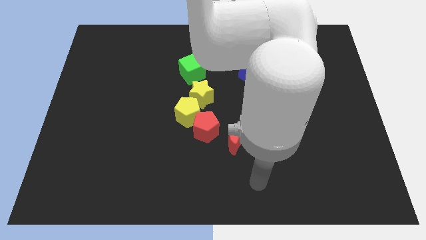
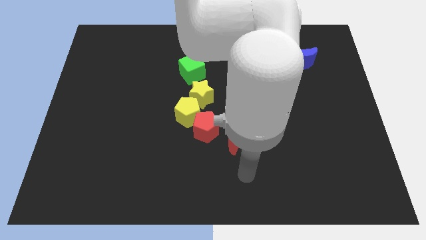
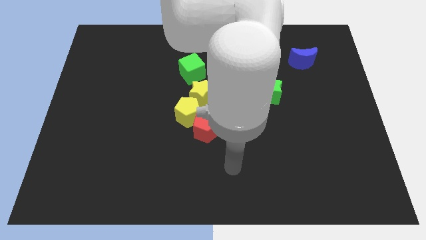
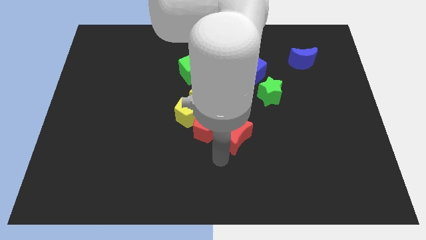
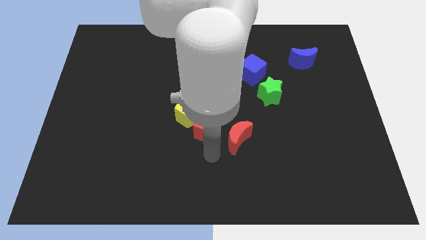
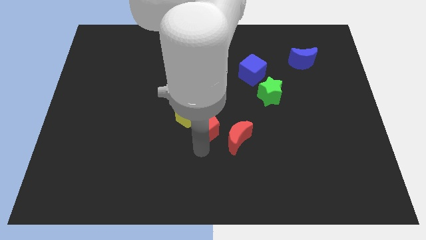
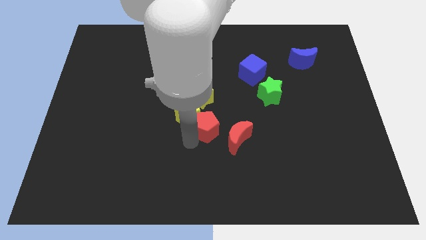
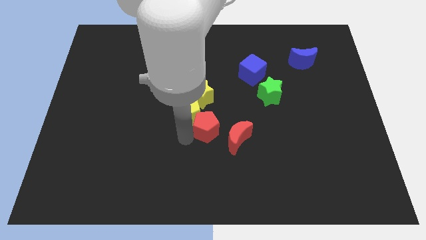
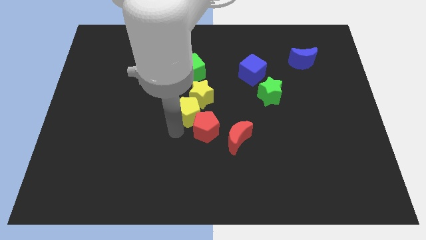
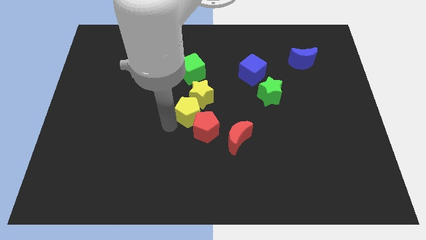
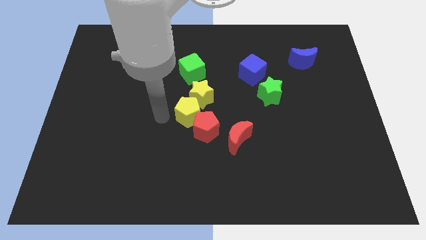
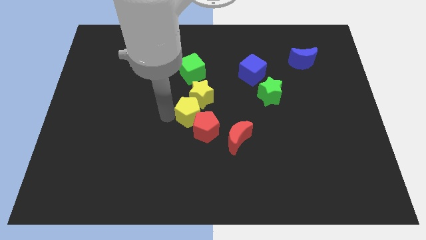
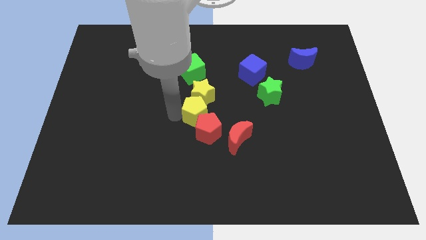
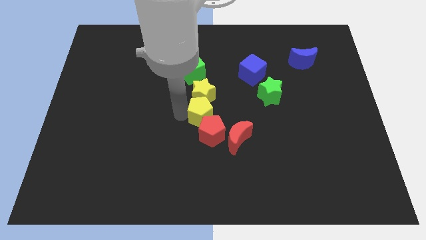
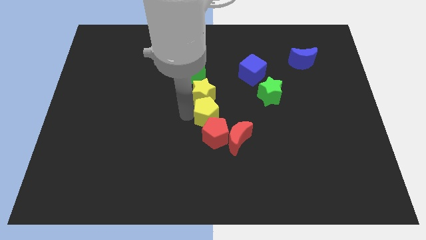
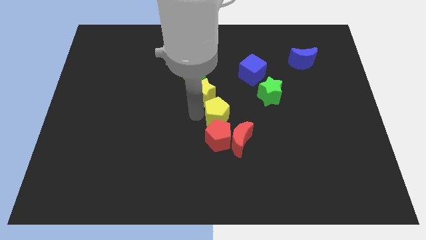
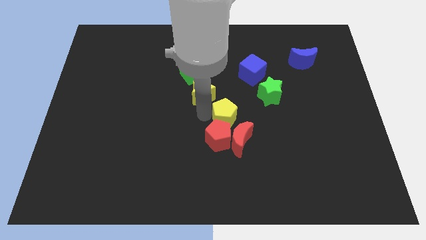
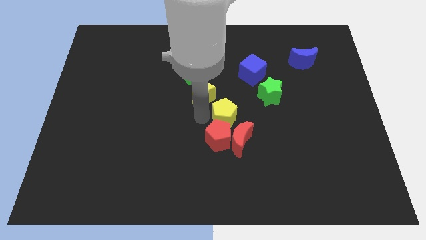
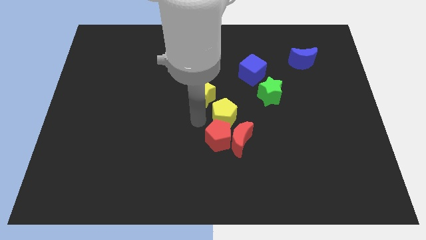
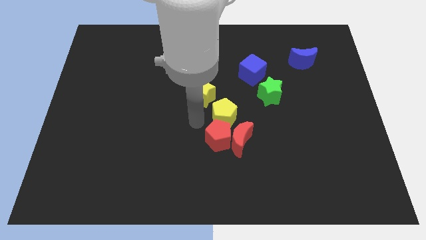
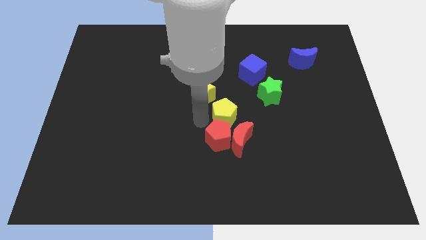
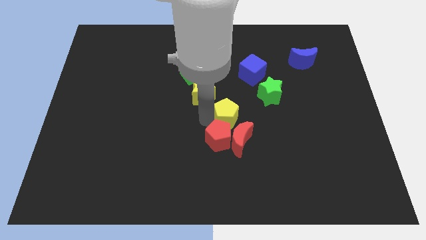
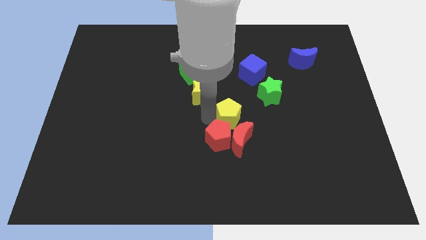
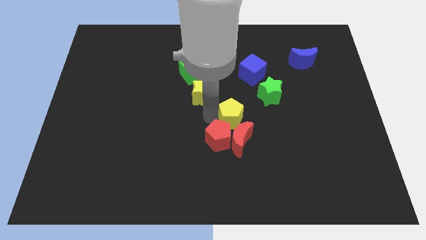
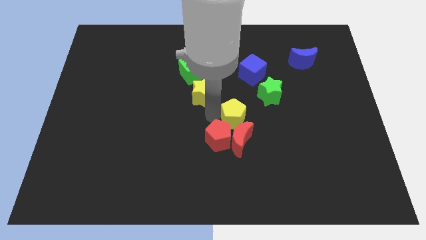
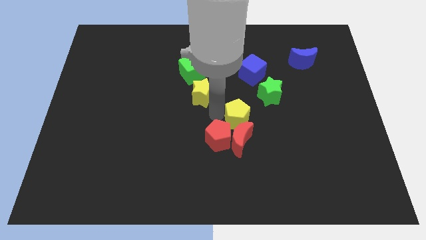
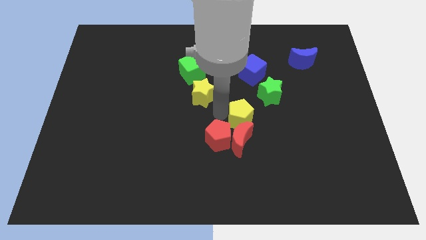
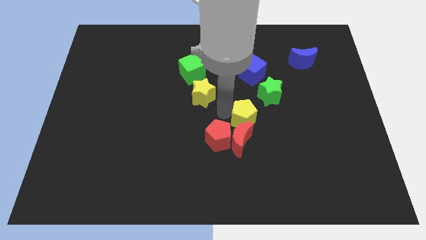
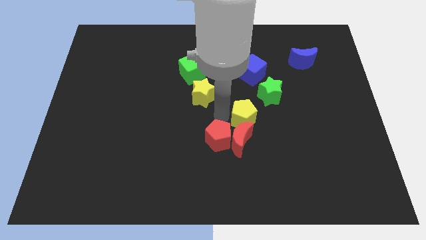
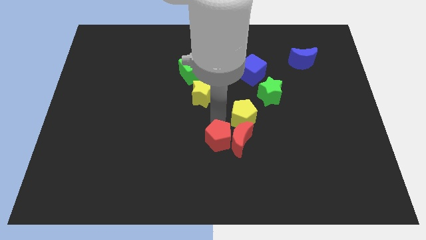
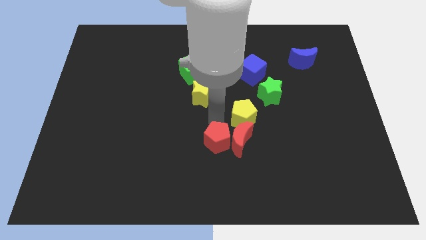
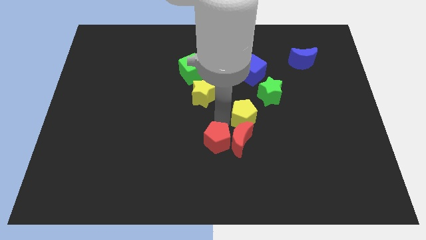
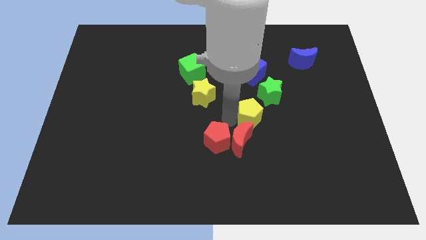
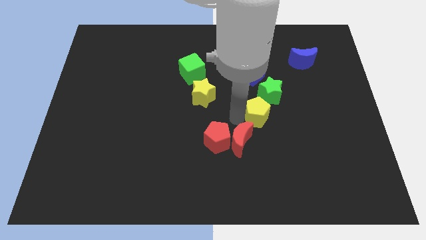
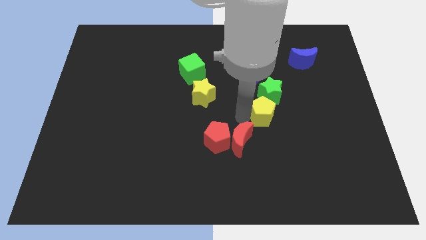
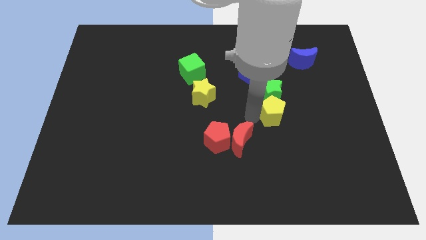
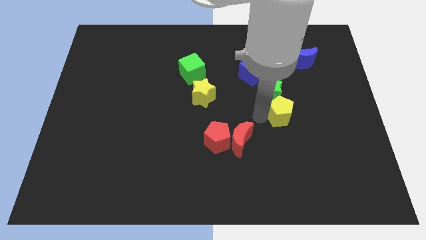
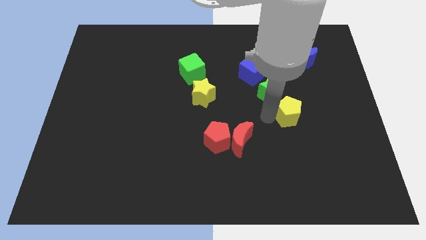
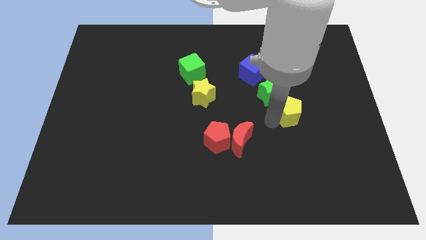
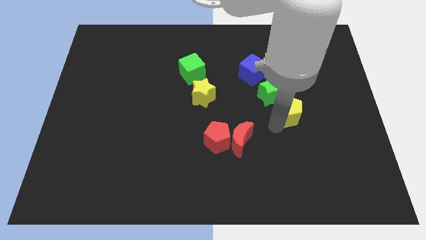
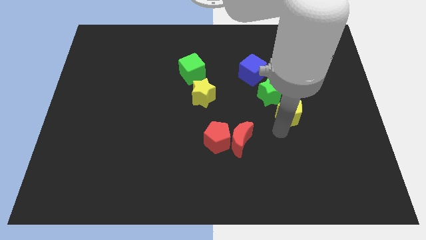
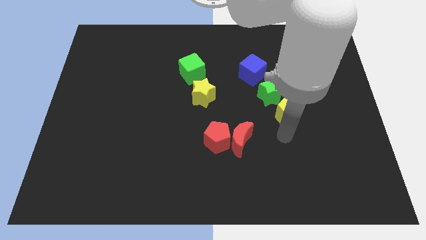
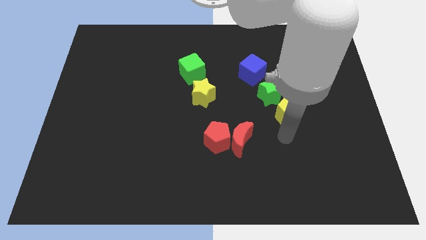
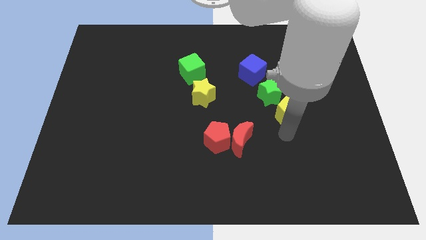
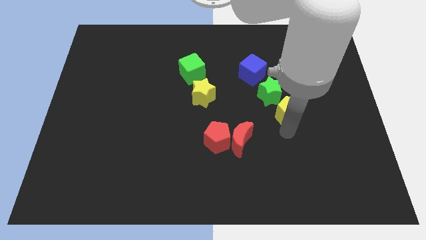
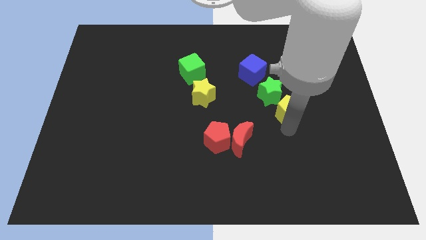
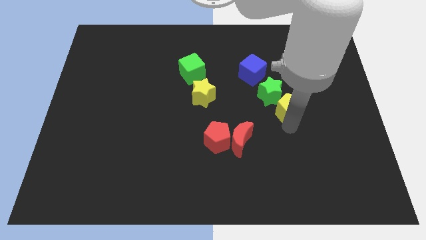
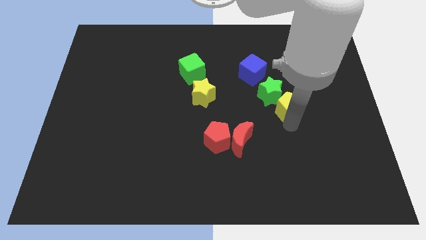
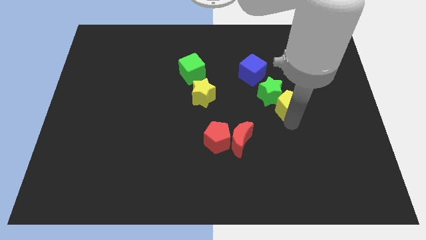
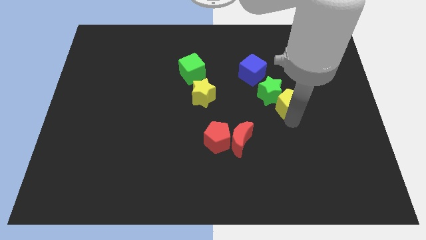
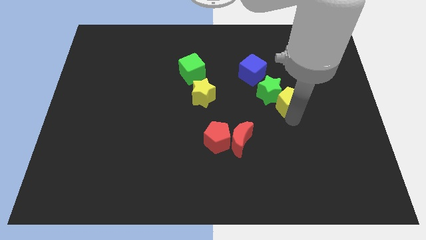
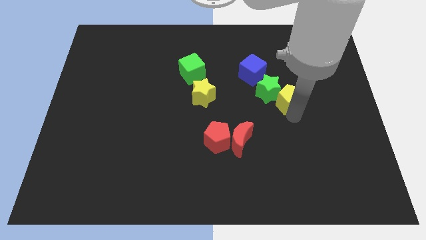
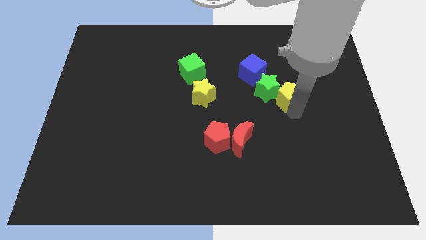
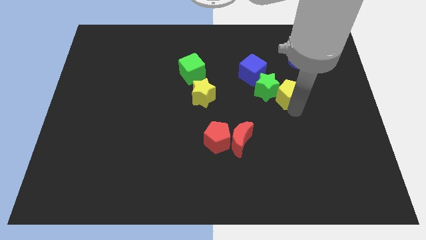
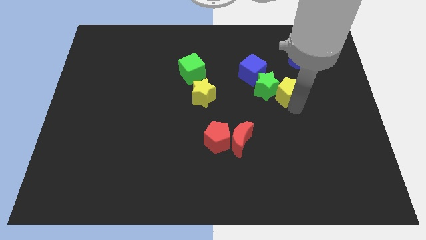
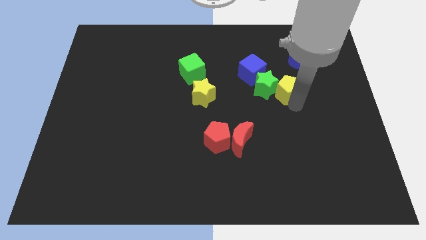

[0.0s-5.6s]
put the yellow pentagon diagonally down and to the left of the blue moon

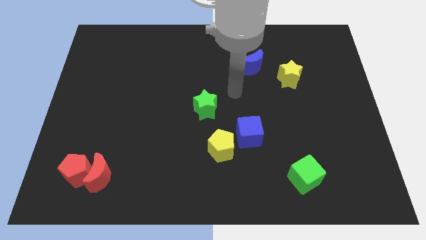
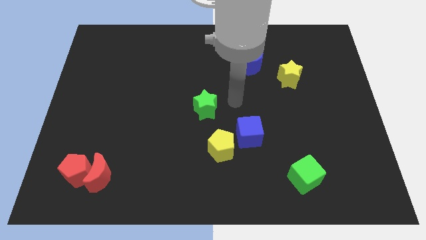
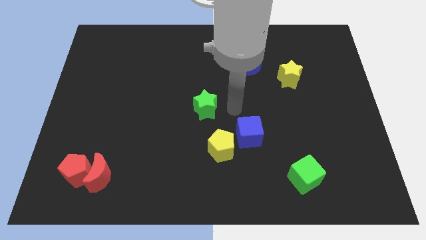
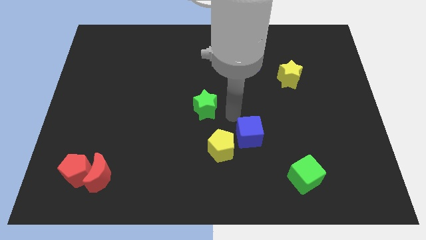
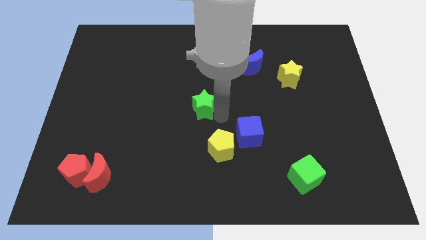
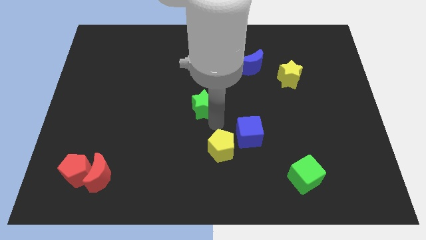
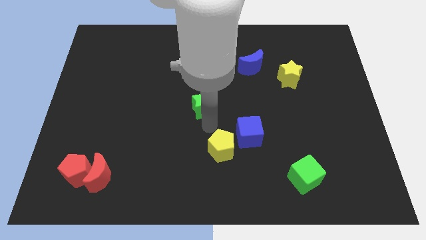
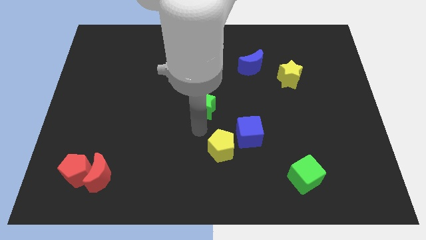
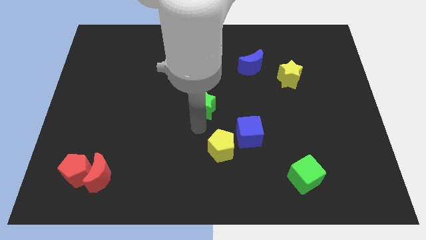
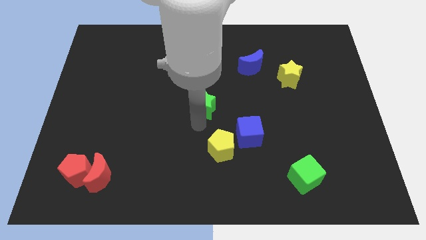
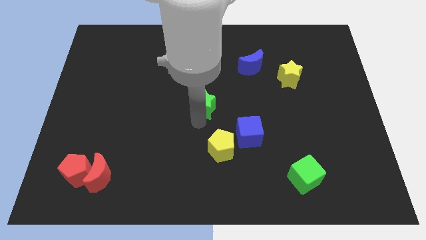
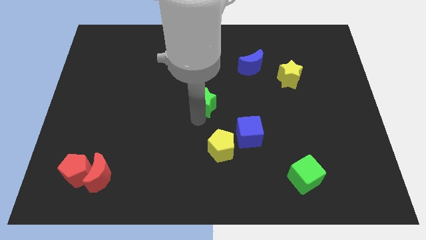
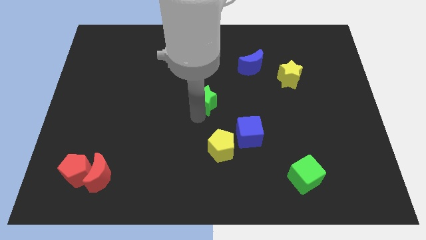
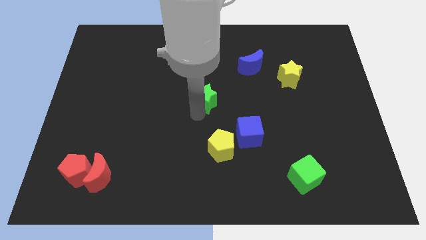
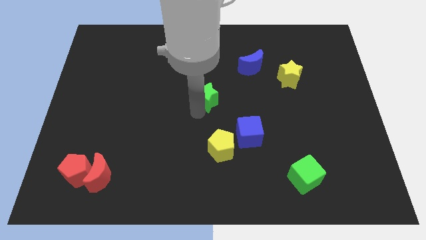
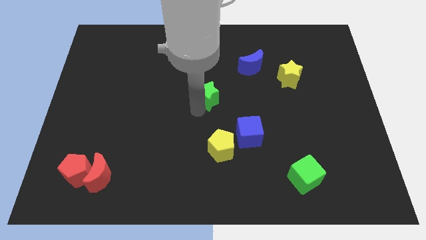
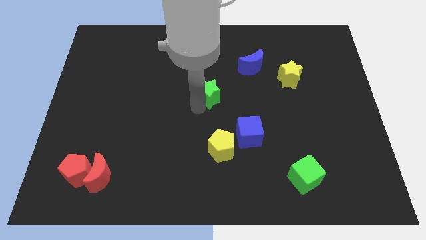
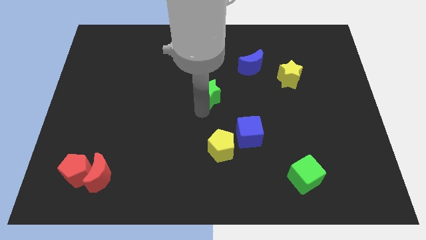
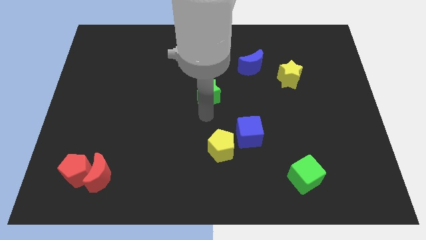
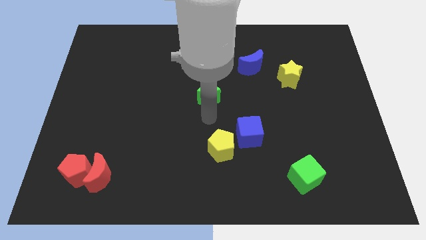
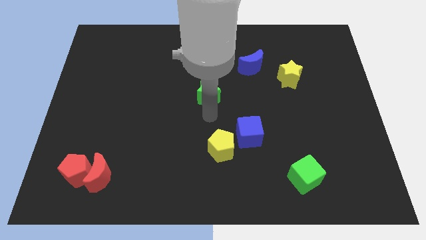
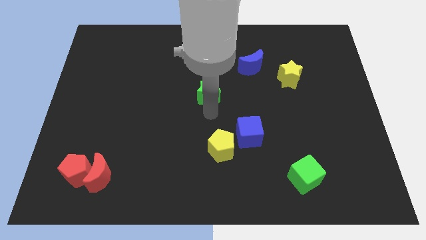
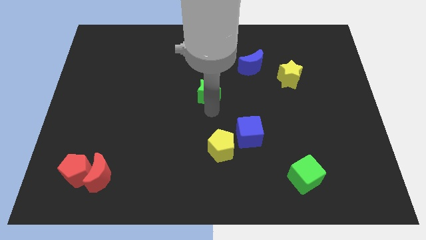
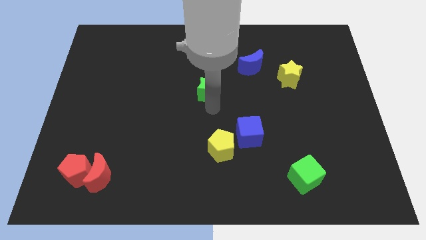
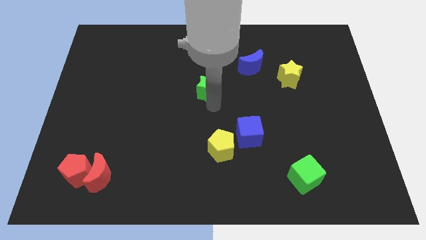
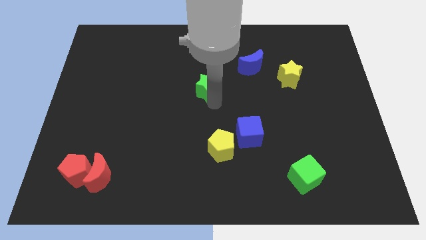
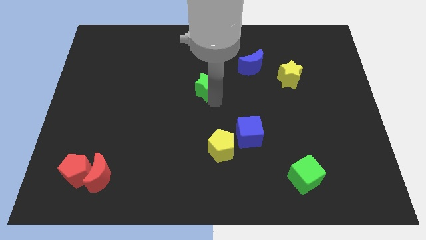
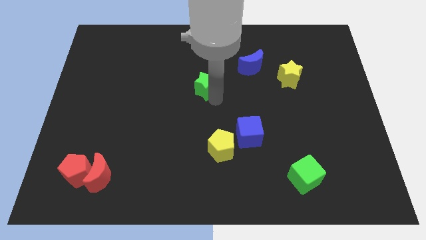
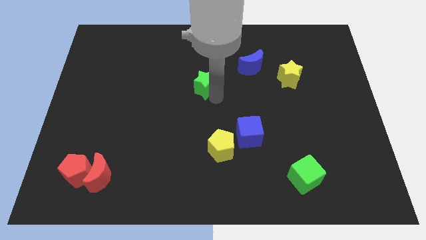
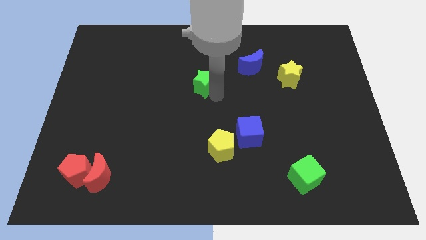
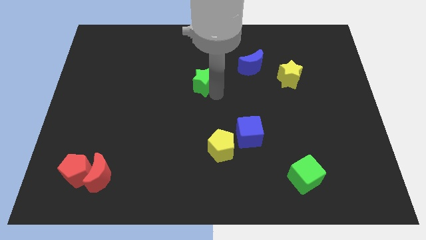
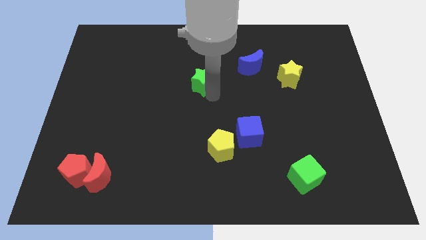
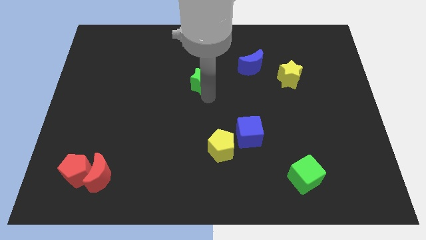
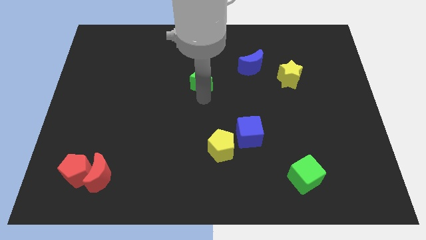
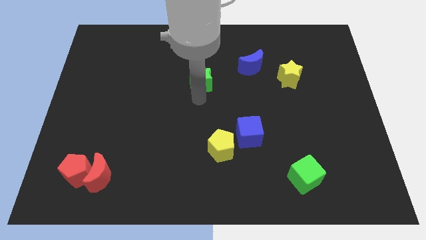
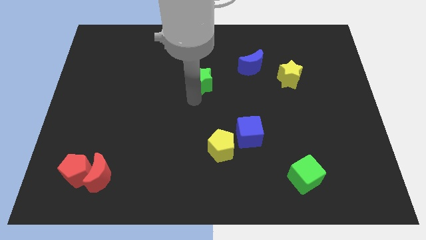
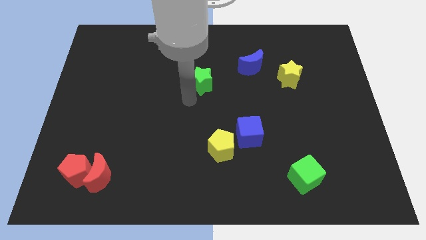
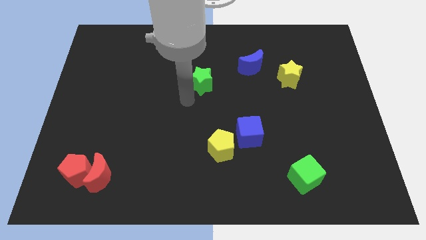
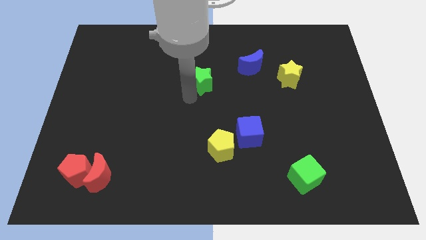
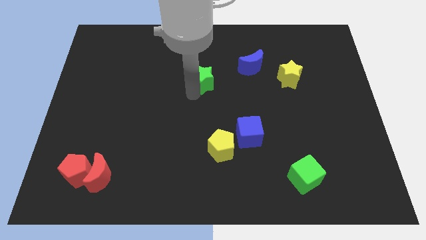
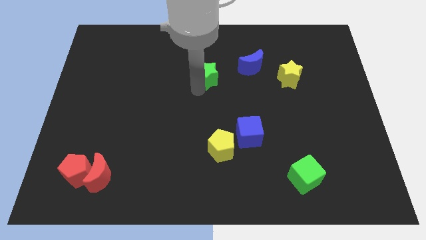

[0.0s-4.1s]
put the green star to the left side of the blue moon
